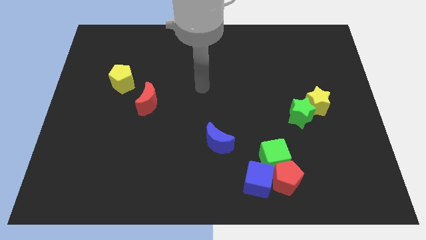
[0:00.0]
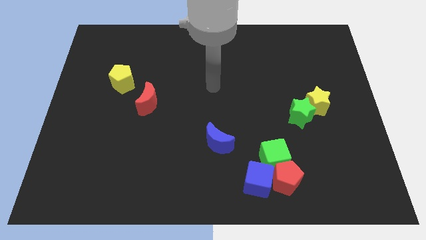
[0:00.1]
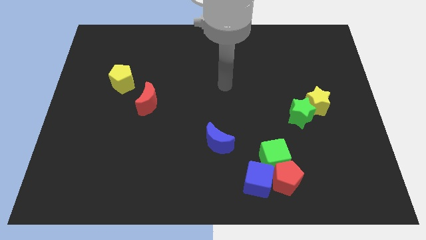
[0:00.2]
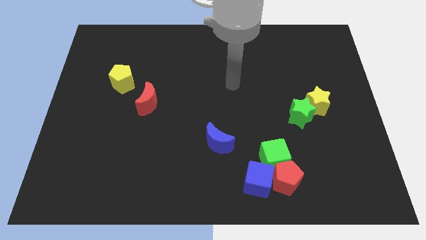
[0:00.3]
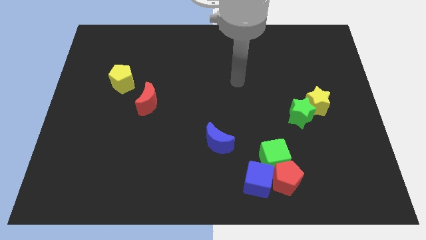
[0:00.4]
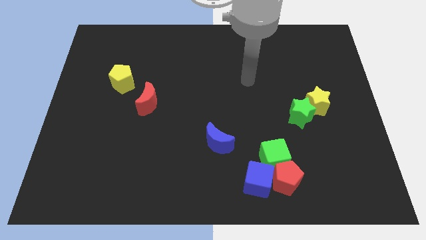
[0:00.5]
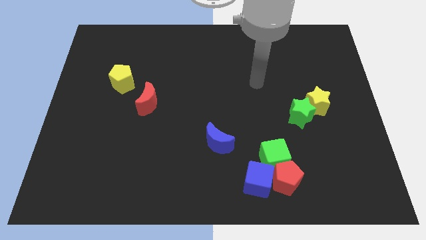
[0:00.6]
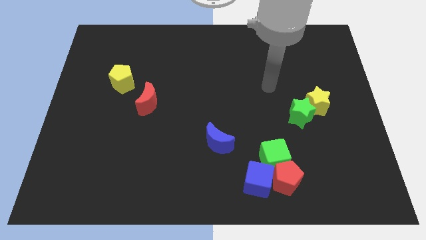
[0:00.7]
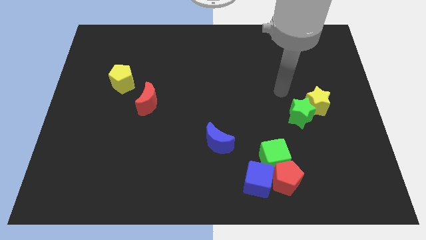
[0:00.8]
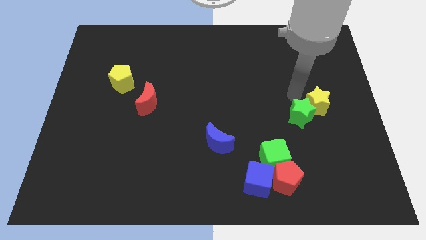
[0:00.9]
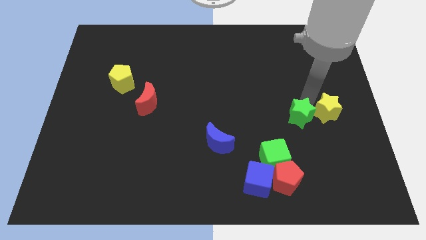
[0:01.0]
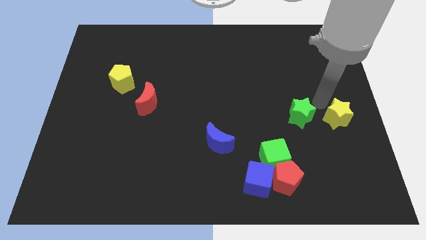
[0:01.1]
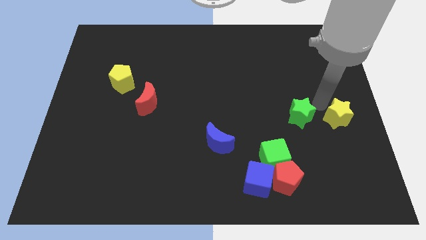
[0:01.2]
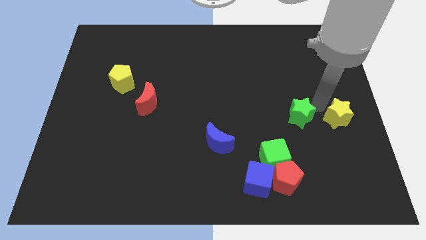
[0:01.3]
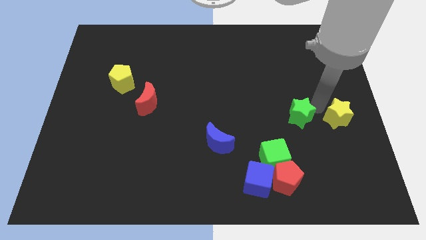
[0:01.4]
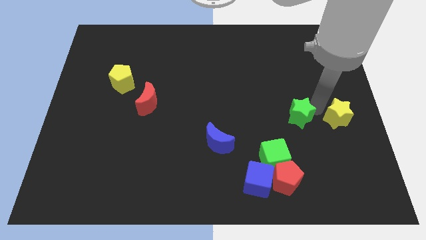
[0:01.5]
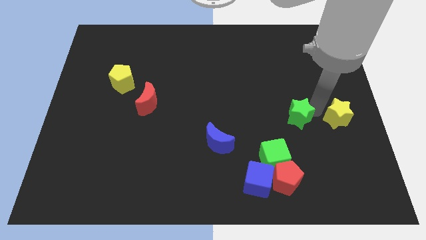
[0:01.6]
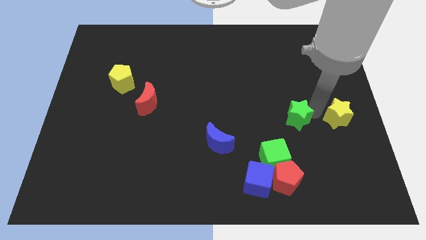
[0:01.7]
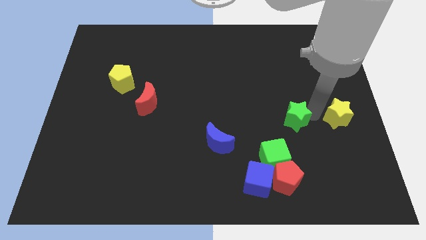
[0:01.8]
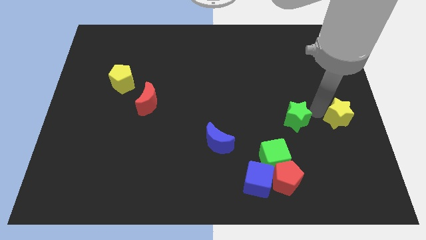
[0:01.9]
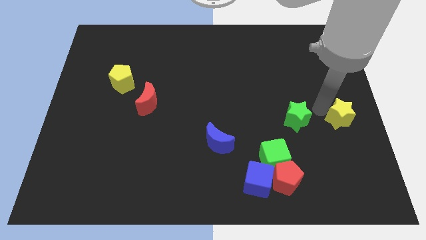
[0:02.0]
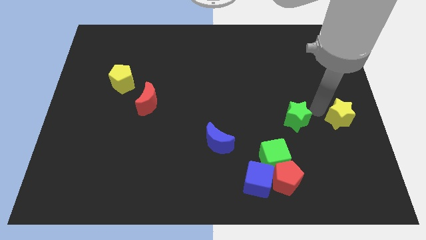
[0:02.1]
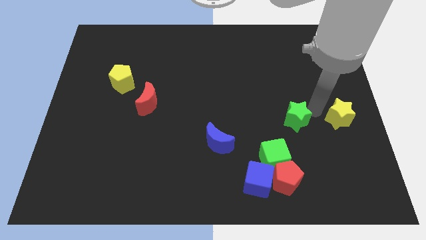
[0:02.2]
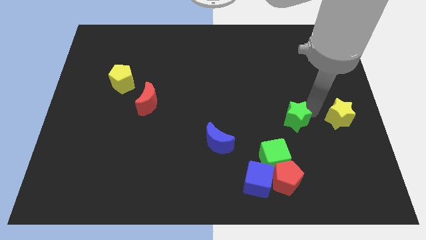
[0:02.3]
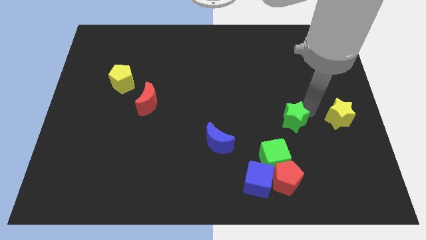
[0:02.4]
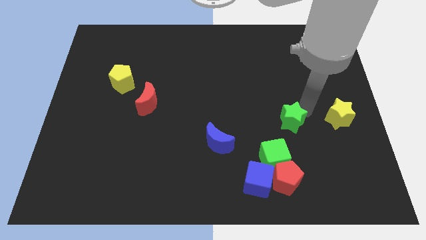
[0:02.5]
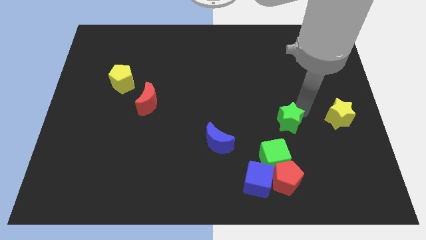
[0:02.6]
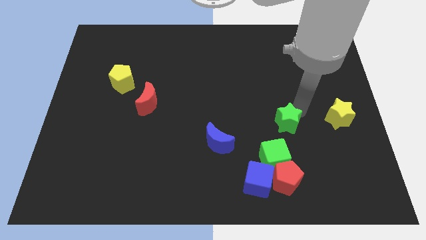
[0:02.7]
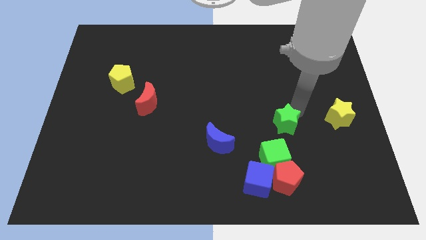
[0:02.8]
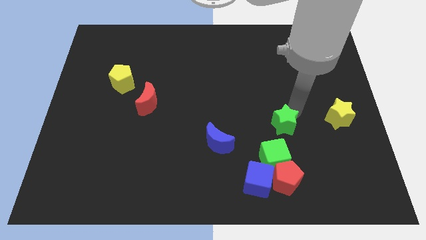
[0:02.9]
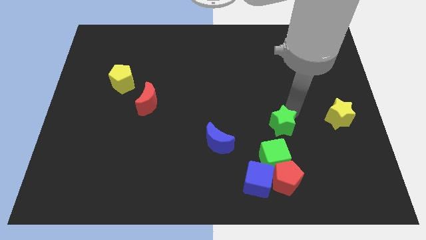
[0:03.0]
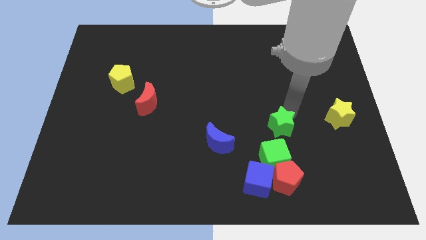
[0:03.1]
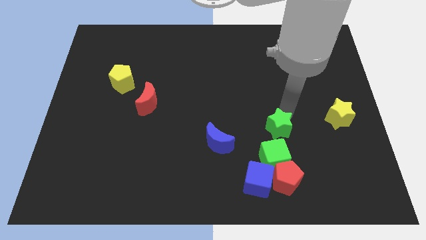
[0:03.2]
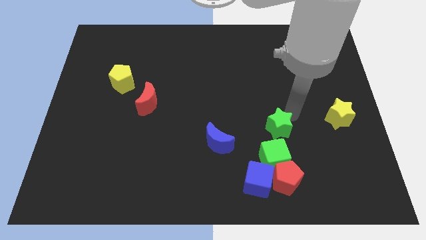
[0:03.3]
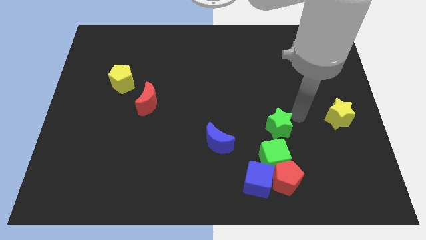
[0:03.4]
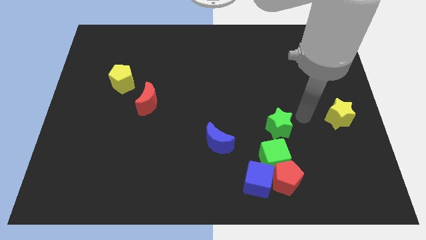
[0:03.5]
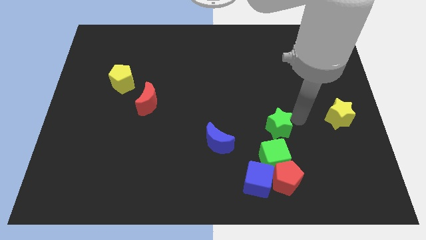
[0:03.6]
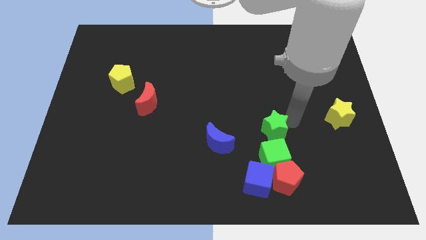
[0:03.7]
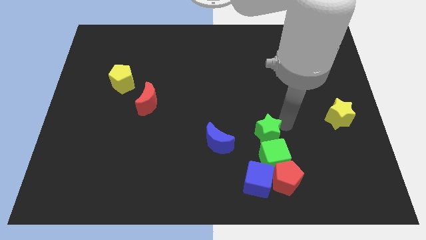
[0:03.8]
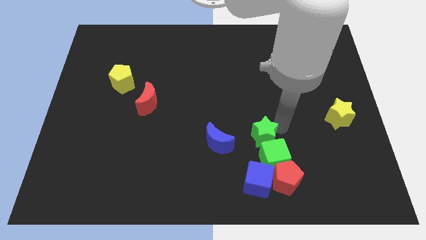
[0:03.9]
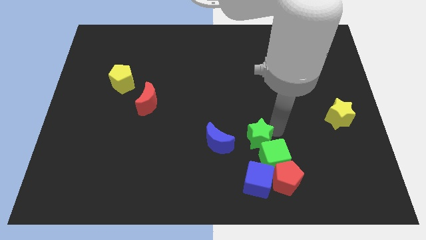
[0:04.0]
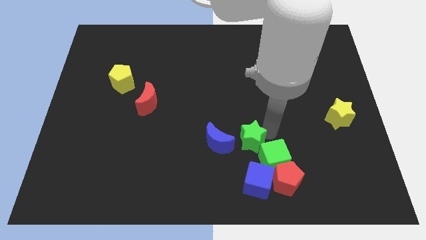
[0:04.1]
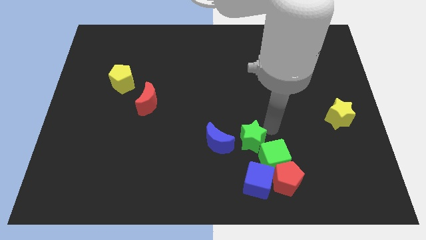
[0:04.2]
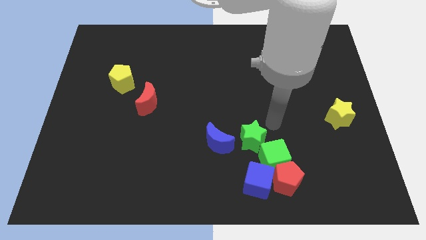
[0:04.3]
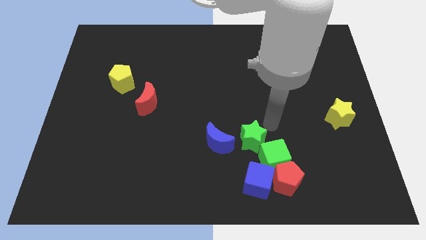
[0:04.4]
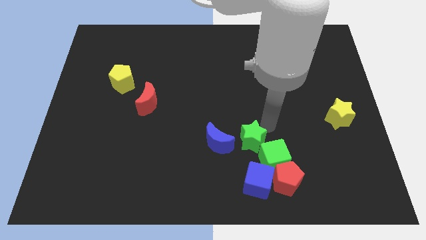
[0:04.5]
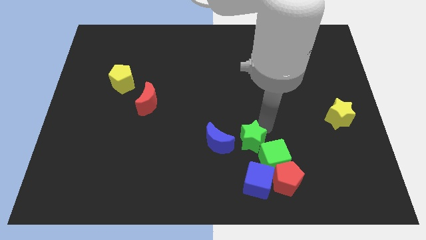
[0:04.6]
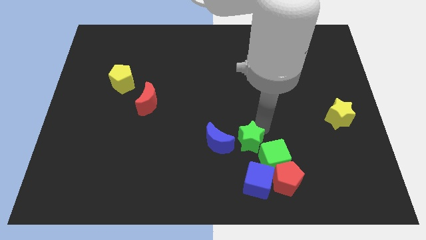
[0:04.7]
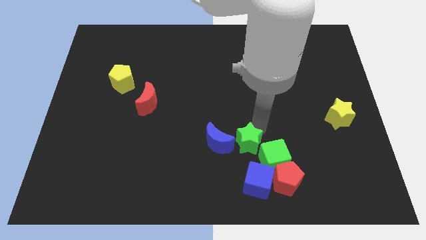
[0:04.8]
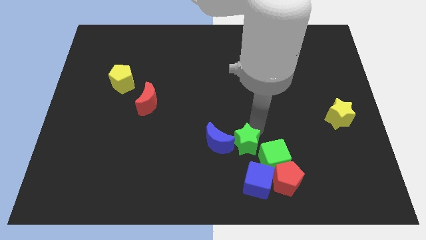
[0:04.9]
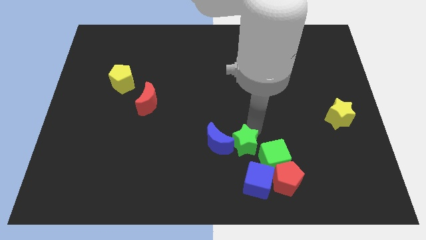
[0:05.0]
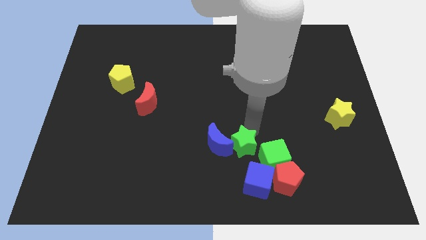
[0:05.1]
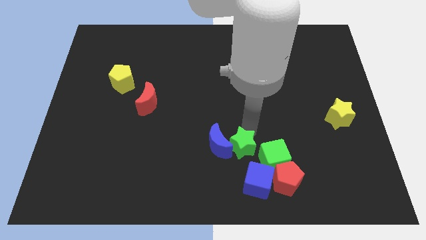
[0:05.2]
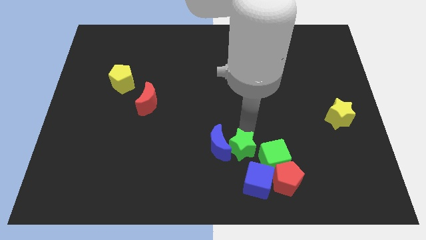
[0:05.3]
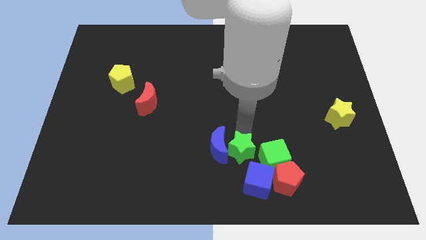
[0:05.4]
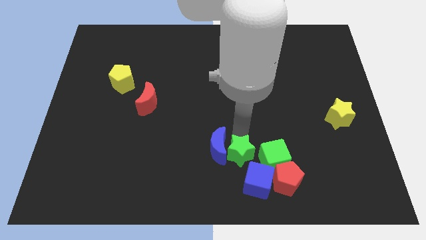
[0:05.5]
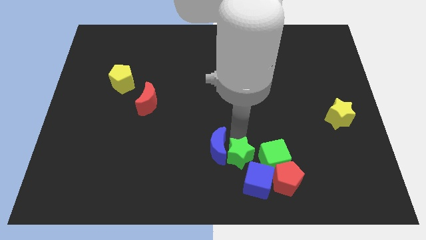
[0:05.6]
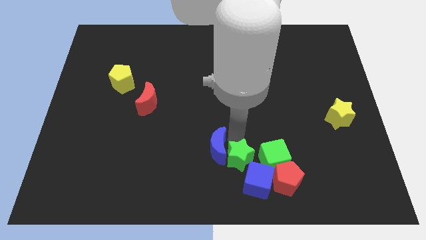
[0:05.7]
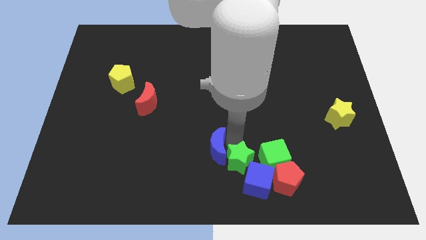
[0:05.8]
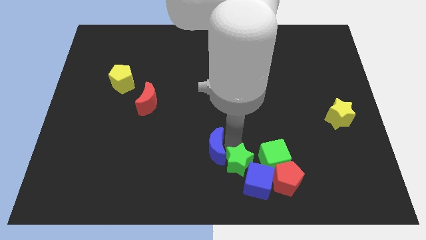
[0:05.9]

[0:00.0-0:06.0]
put the green star left of the red pentagon

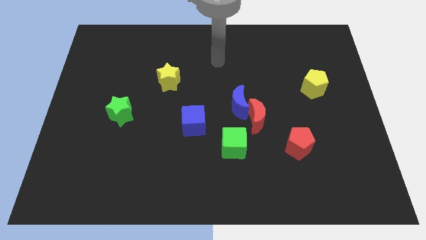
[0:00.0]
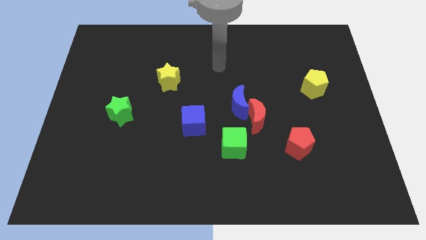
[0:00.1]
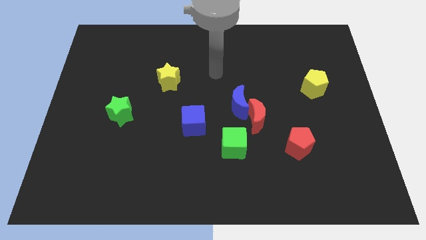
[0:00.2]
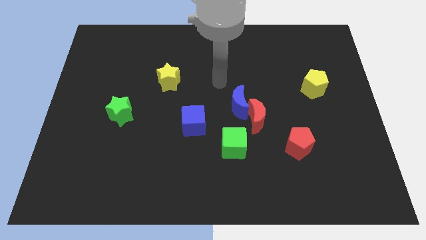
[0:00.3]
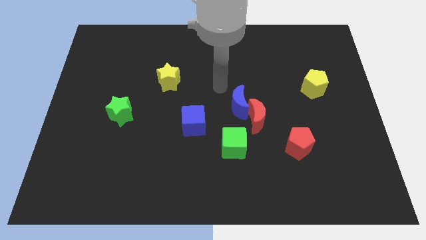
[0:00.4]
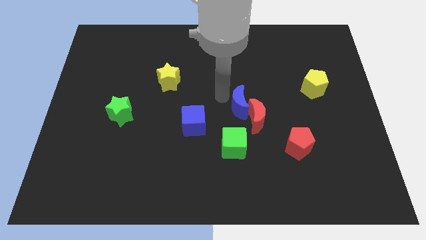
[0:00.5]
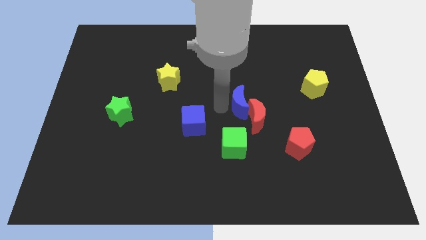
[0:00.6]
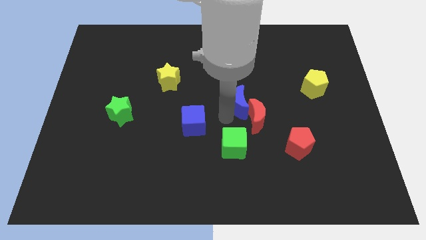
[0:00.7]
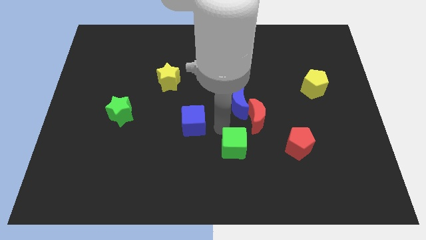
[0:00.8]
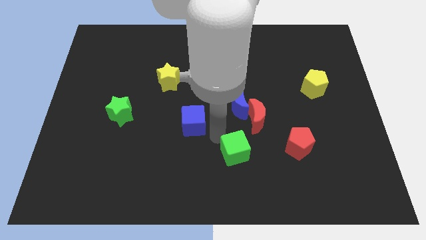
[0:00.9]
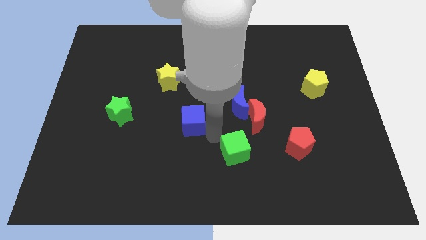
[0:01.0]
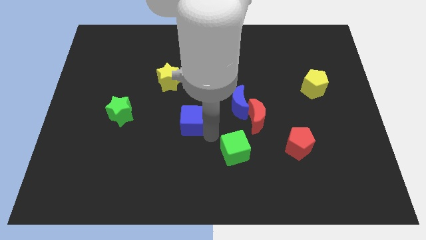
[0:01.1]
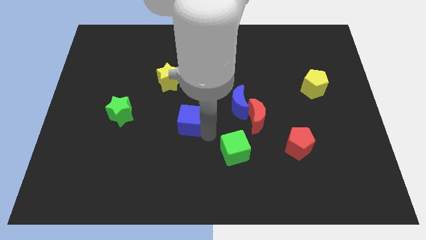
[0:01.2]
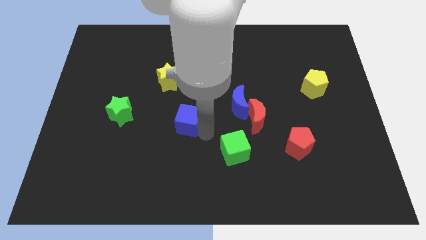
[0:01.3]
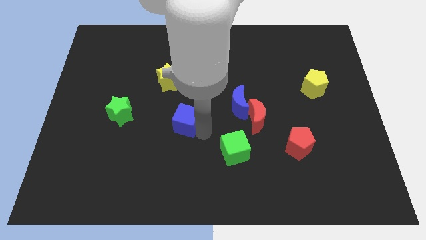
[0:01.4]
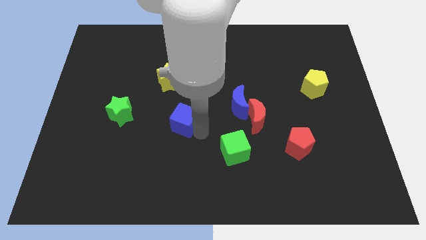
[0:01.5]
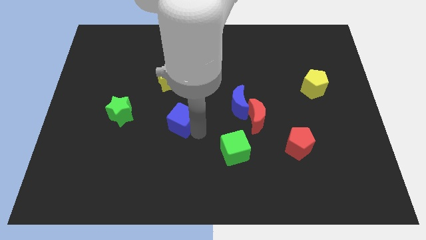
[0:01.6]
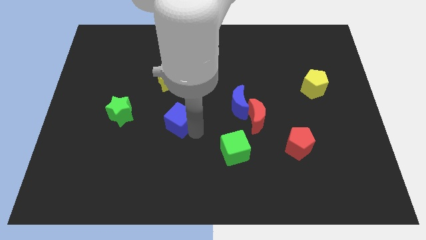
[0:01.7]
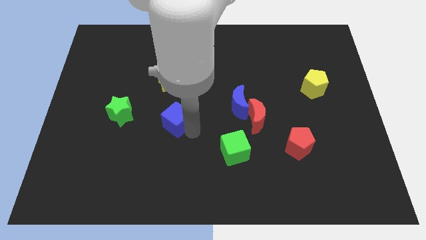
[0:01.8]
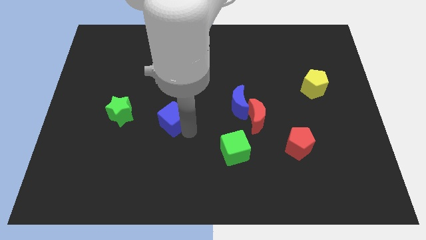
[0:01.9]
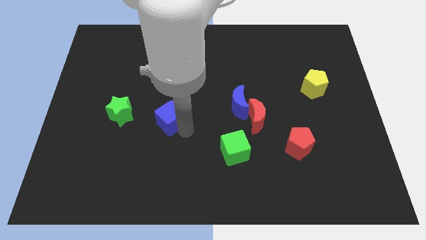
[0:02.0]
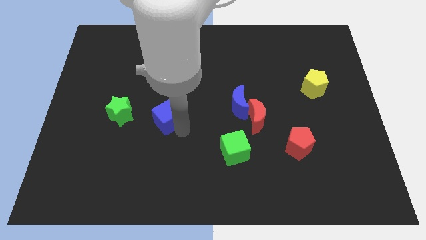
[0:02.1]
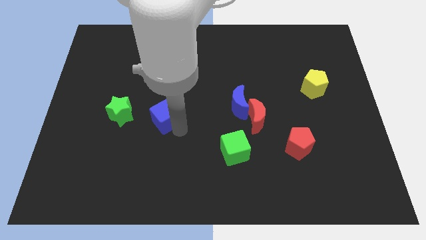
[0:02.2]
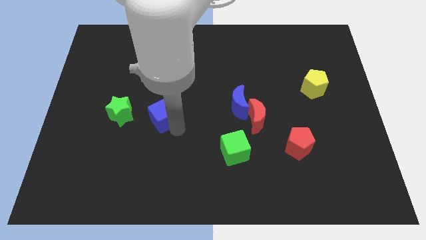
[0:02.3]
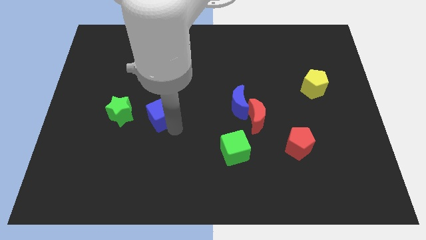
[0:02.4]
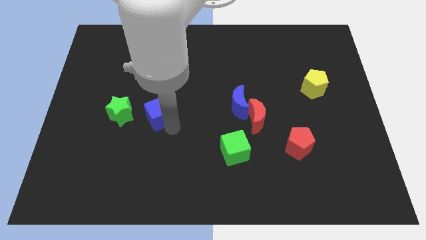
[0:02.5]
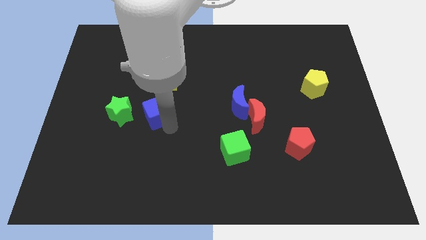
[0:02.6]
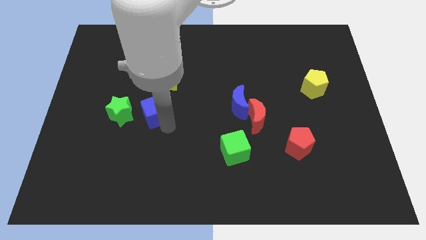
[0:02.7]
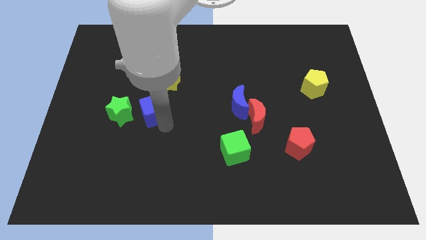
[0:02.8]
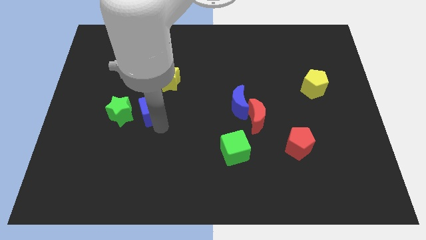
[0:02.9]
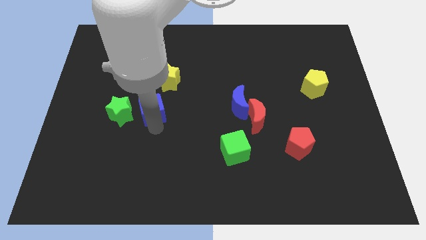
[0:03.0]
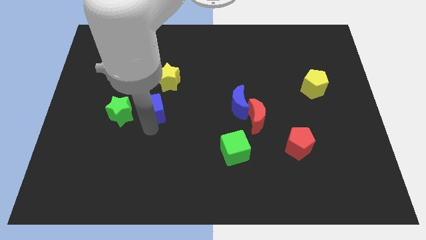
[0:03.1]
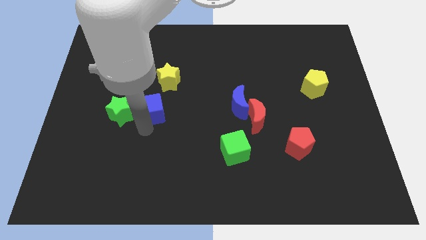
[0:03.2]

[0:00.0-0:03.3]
slide the blue cube to the bottom left side of the yellow star
